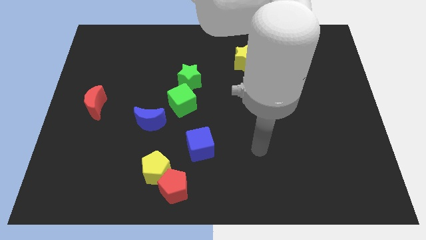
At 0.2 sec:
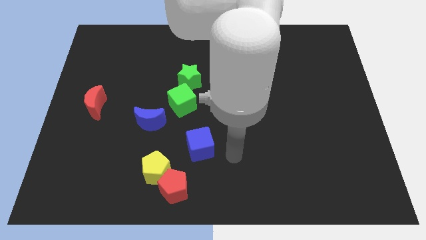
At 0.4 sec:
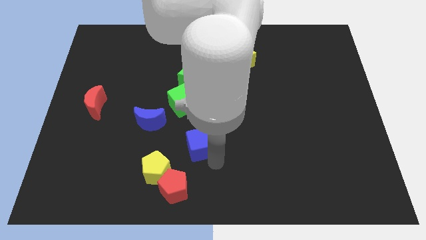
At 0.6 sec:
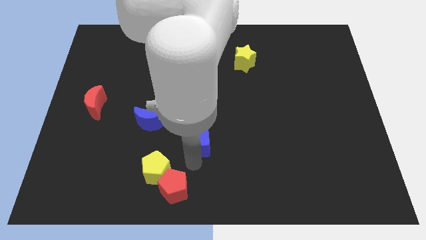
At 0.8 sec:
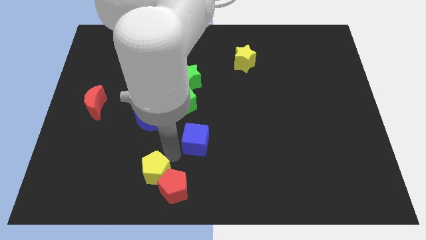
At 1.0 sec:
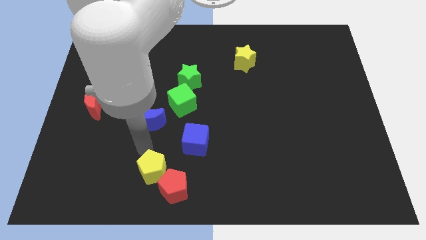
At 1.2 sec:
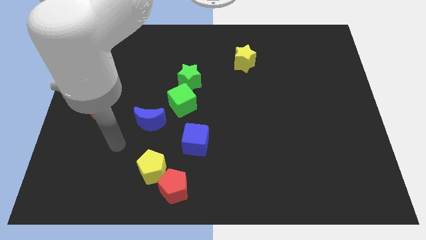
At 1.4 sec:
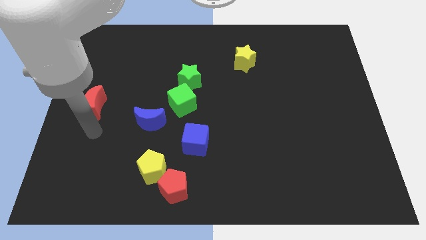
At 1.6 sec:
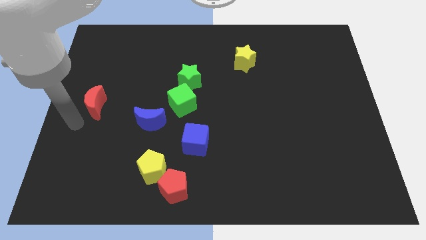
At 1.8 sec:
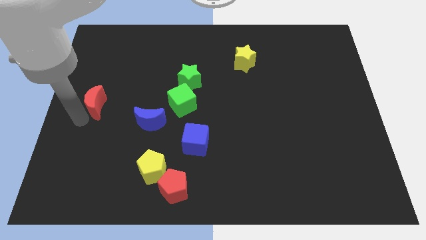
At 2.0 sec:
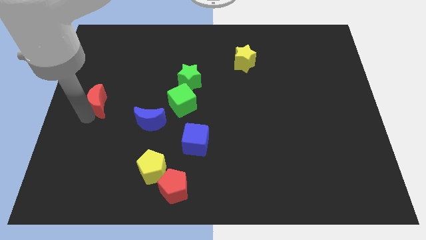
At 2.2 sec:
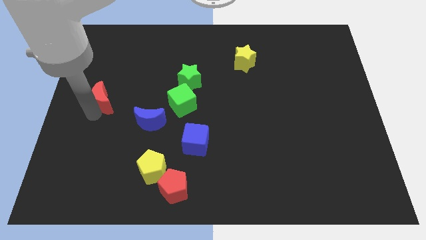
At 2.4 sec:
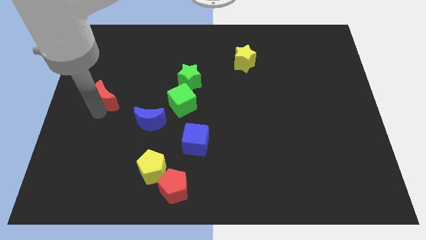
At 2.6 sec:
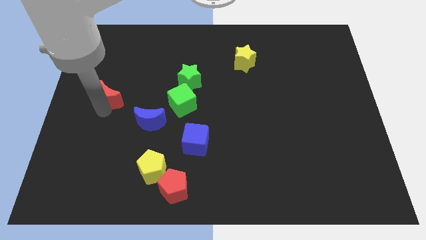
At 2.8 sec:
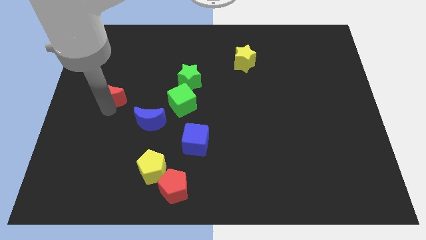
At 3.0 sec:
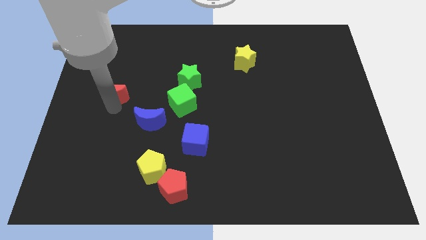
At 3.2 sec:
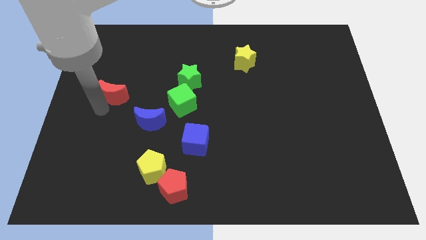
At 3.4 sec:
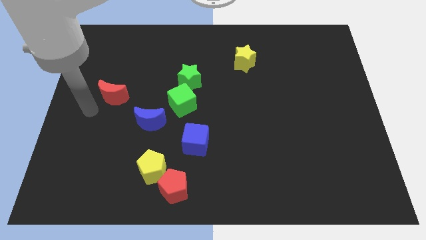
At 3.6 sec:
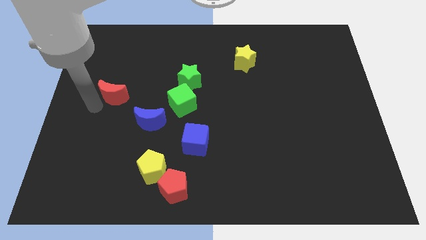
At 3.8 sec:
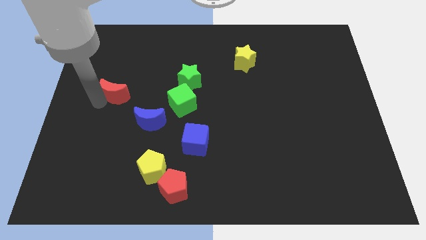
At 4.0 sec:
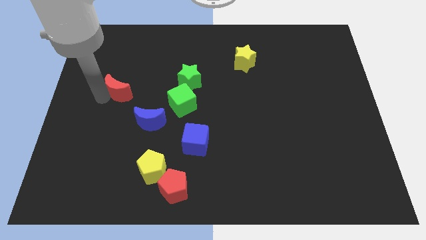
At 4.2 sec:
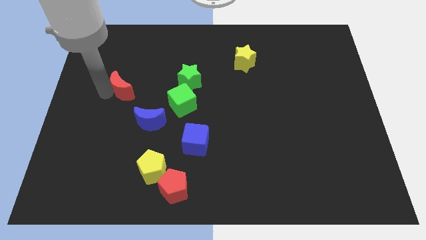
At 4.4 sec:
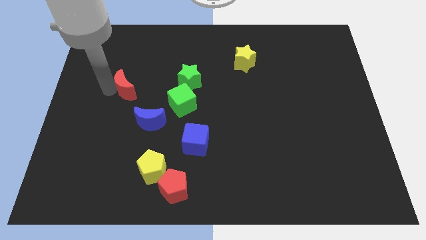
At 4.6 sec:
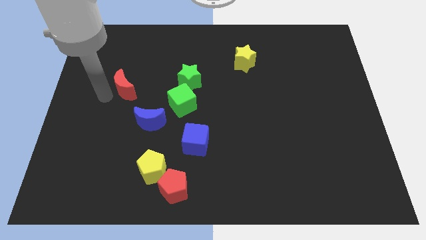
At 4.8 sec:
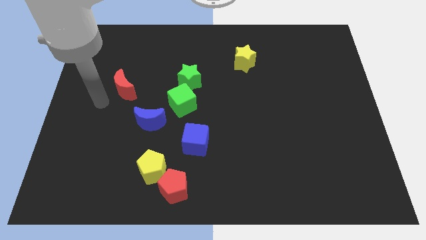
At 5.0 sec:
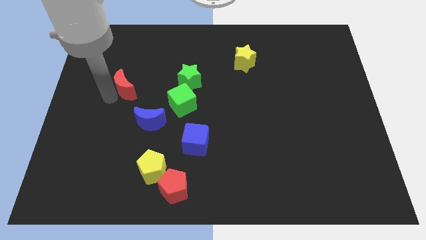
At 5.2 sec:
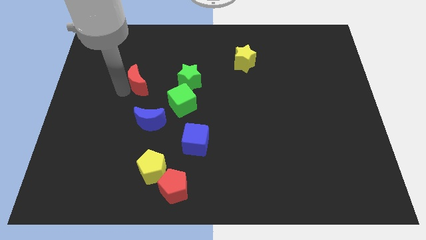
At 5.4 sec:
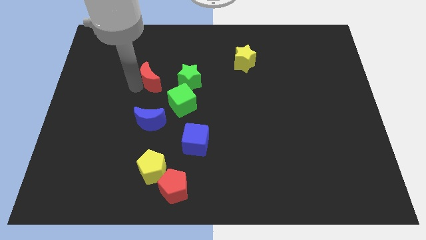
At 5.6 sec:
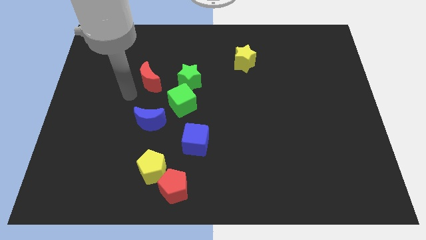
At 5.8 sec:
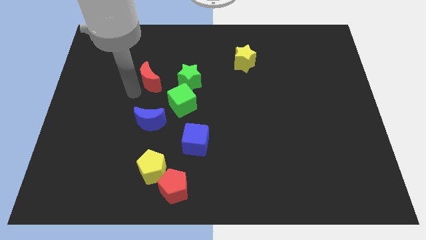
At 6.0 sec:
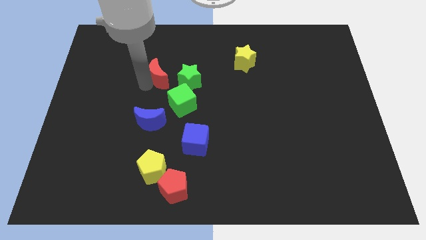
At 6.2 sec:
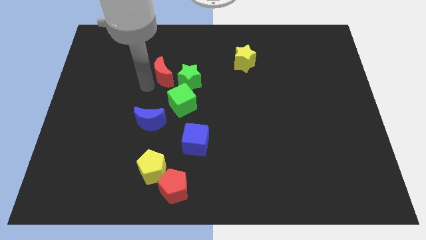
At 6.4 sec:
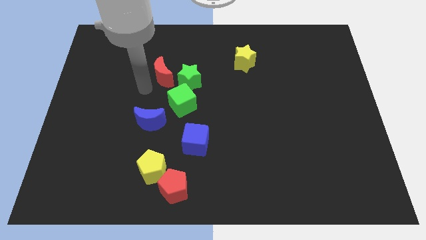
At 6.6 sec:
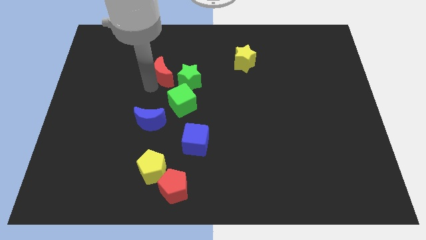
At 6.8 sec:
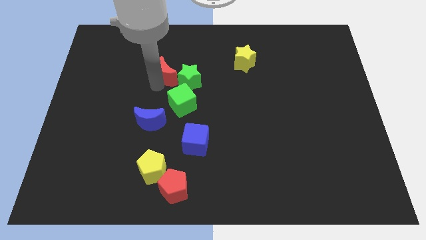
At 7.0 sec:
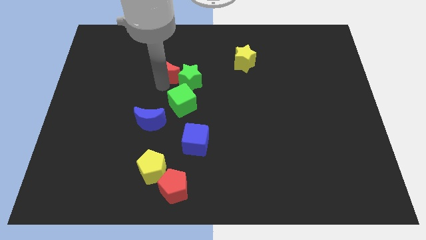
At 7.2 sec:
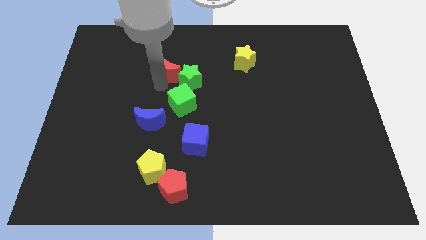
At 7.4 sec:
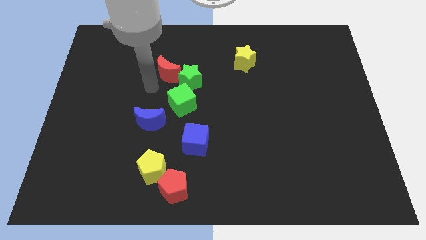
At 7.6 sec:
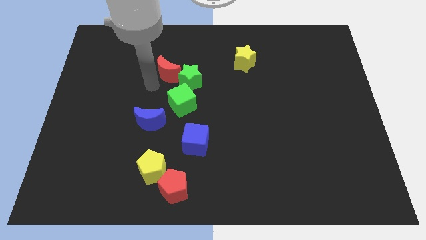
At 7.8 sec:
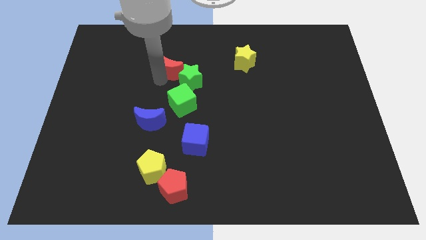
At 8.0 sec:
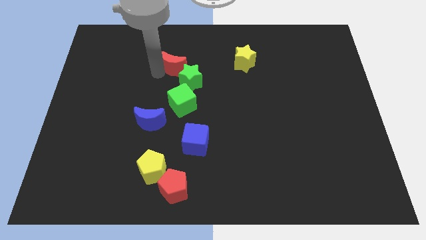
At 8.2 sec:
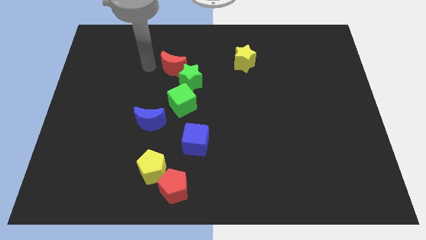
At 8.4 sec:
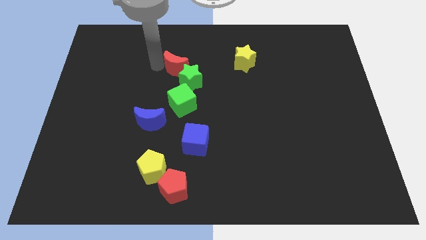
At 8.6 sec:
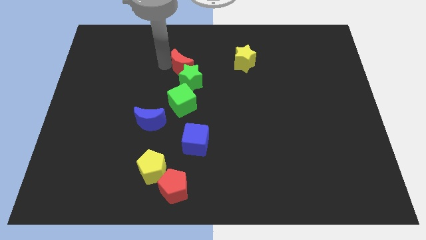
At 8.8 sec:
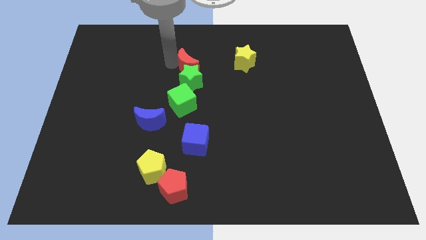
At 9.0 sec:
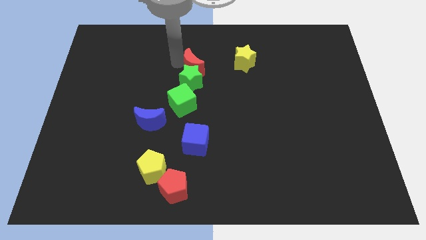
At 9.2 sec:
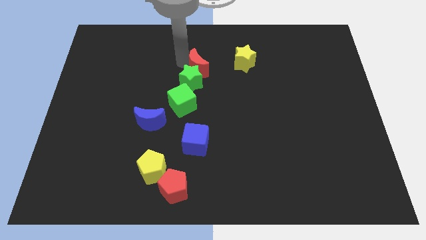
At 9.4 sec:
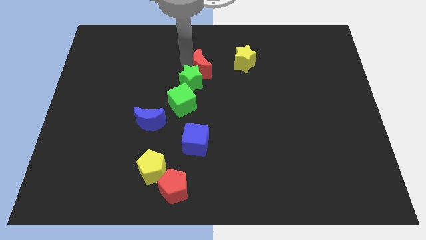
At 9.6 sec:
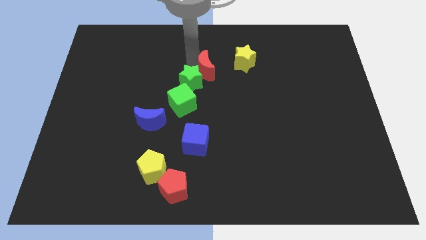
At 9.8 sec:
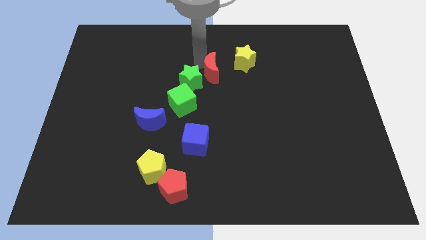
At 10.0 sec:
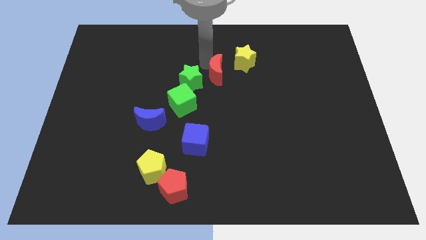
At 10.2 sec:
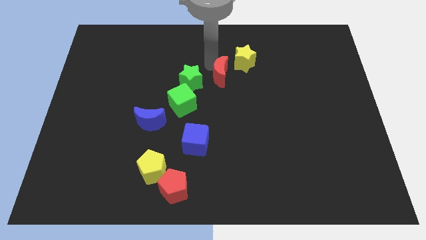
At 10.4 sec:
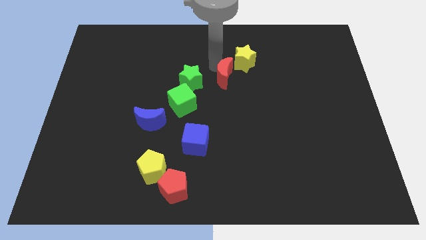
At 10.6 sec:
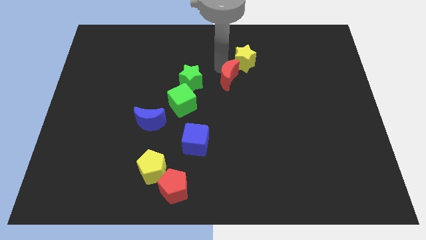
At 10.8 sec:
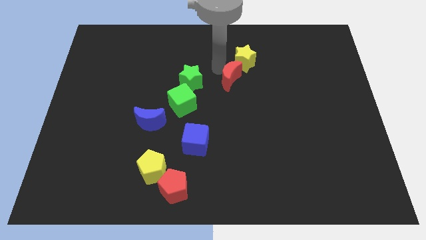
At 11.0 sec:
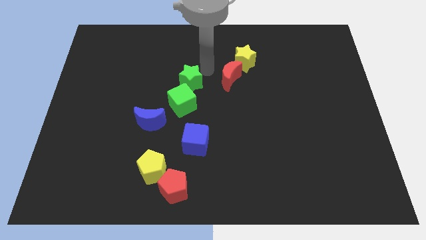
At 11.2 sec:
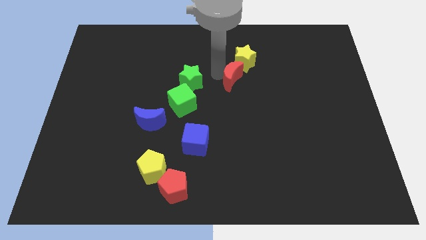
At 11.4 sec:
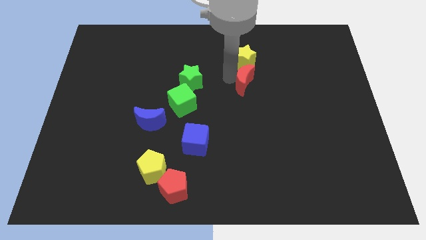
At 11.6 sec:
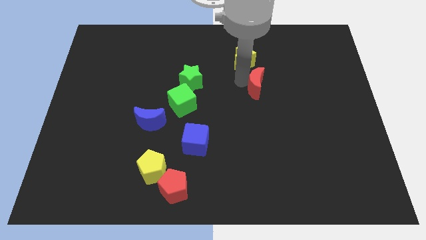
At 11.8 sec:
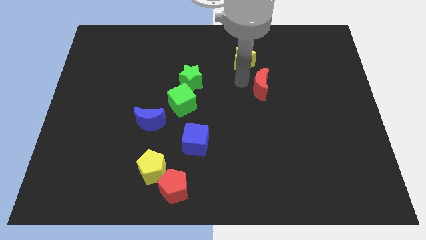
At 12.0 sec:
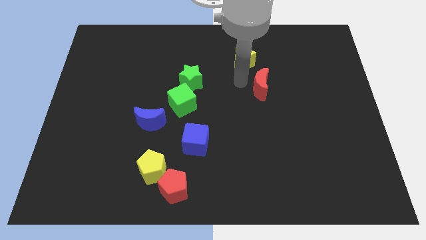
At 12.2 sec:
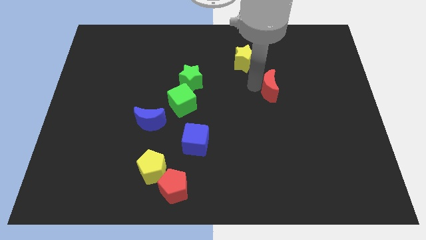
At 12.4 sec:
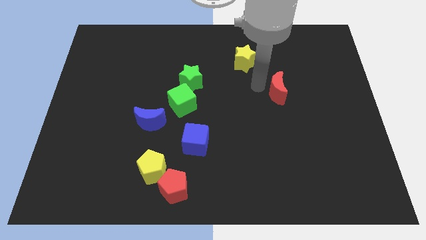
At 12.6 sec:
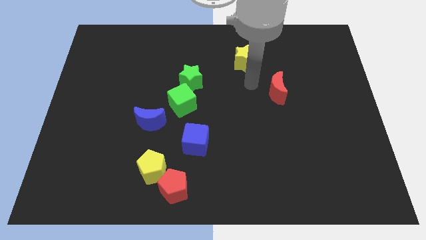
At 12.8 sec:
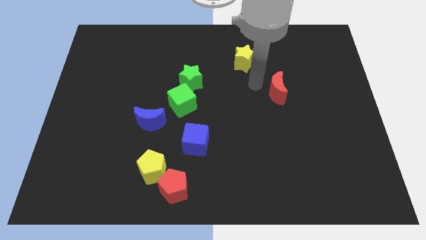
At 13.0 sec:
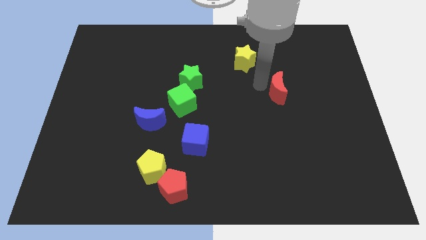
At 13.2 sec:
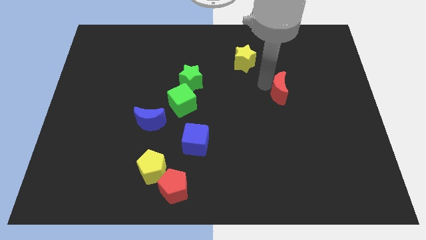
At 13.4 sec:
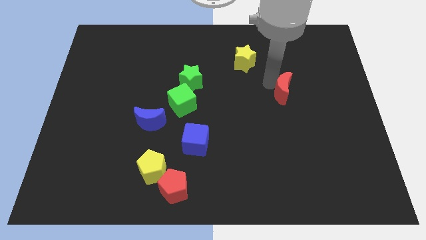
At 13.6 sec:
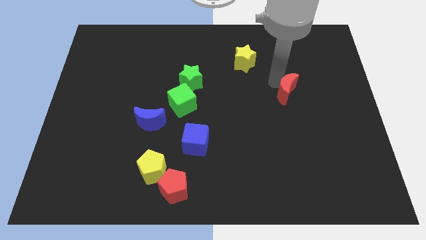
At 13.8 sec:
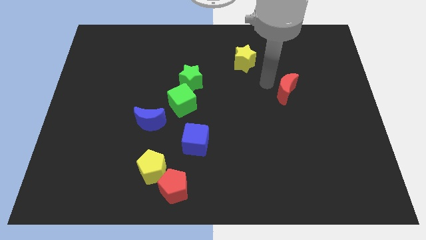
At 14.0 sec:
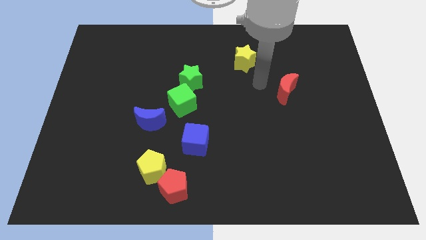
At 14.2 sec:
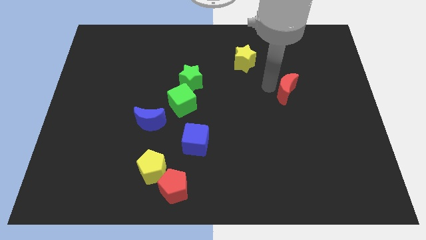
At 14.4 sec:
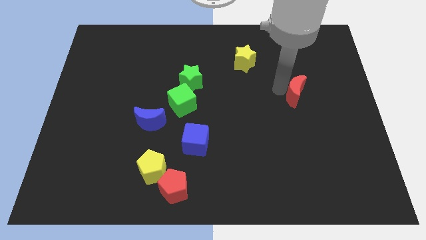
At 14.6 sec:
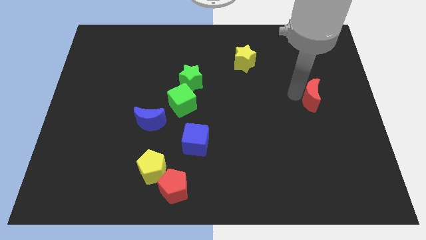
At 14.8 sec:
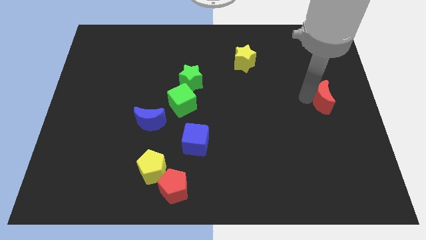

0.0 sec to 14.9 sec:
slide the red moon to the right side of the board
